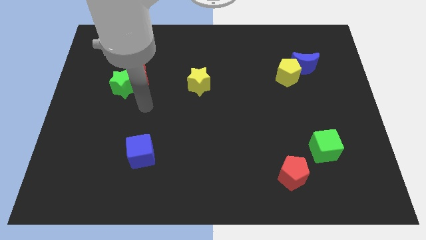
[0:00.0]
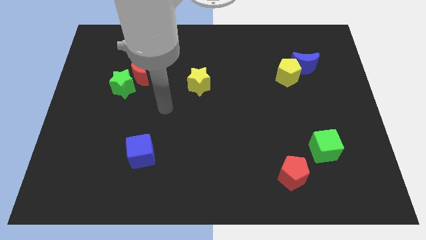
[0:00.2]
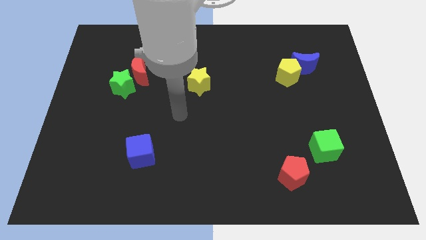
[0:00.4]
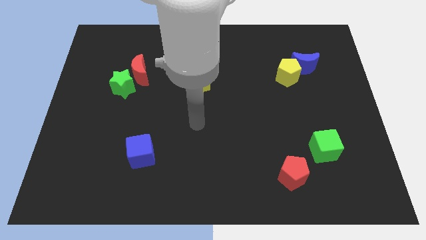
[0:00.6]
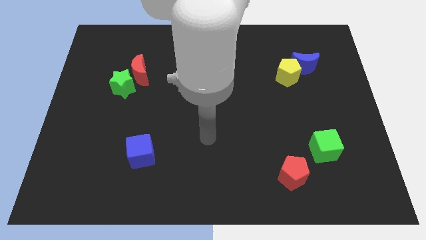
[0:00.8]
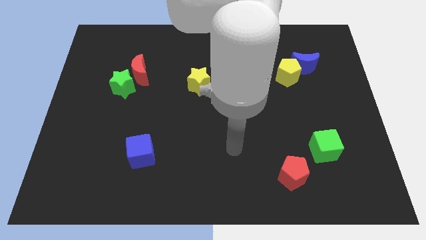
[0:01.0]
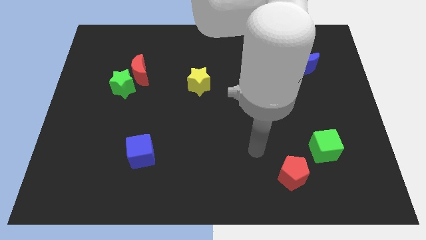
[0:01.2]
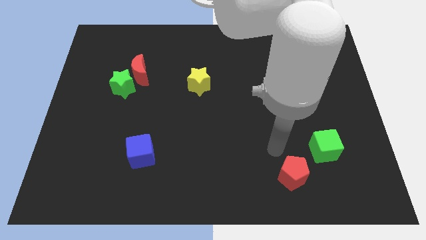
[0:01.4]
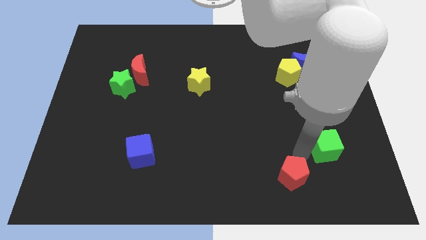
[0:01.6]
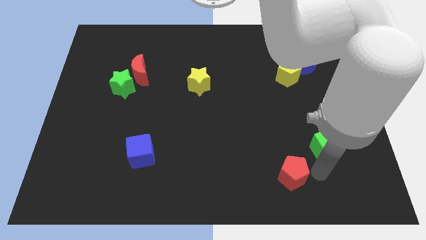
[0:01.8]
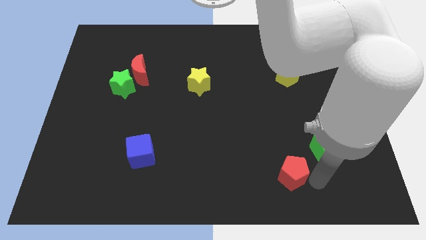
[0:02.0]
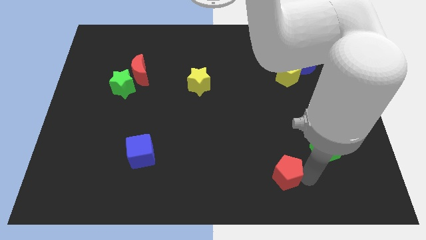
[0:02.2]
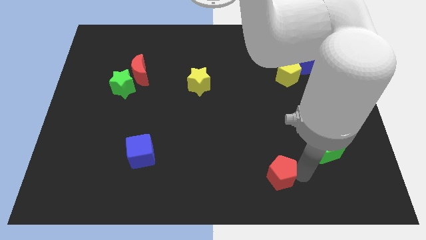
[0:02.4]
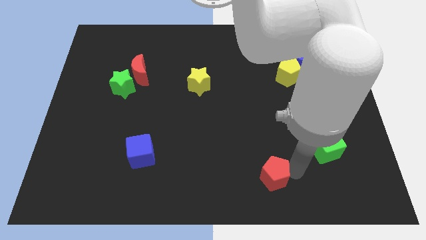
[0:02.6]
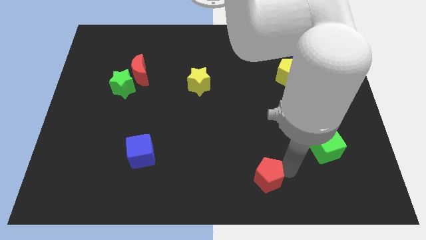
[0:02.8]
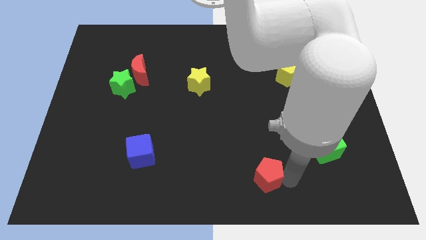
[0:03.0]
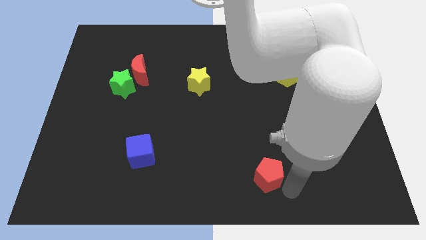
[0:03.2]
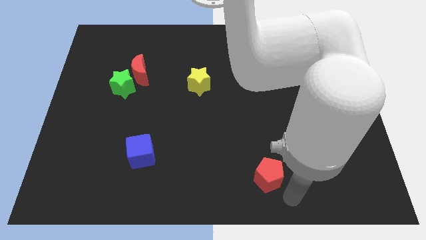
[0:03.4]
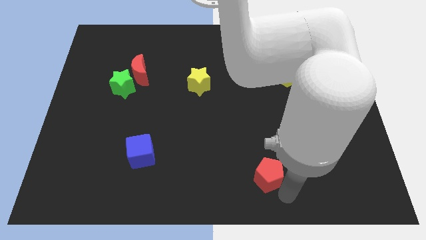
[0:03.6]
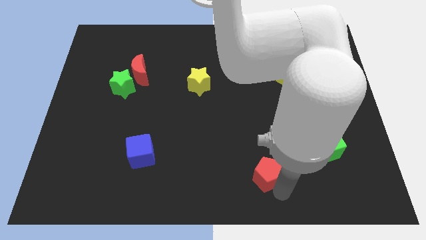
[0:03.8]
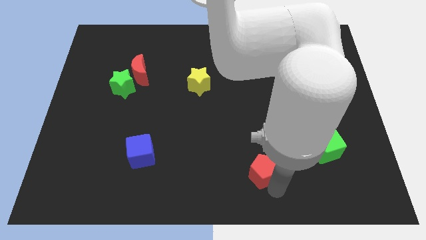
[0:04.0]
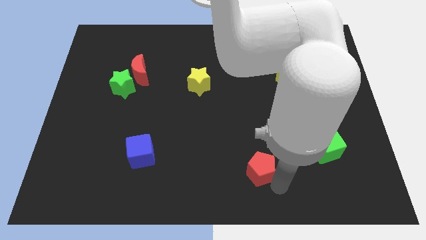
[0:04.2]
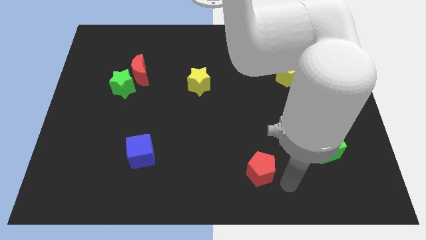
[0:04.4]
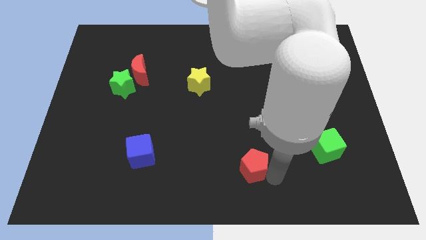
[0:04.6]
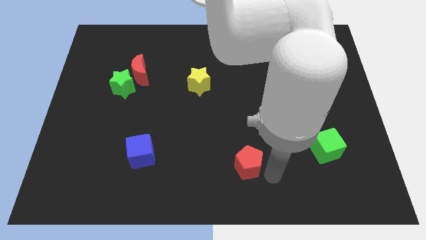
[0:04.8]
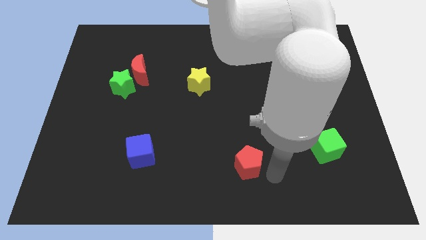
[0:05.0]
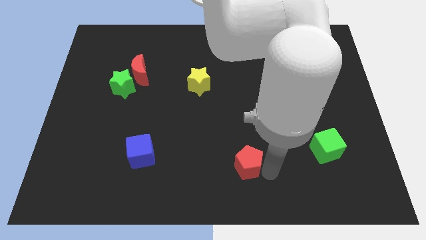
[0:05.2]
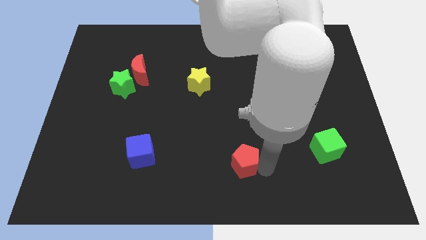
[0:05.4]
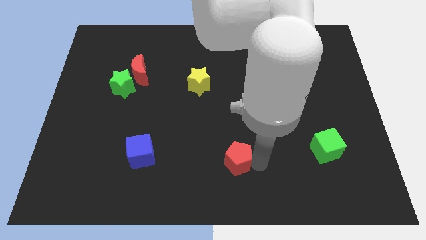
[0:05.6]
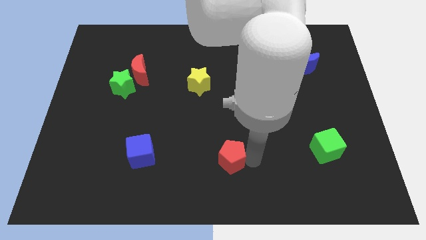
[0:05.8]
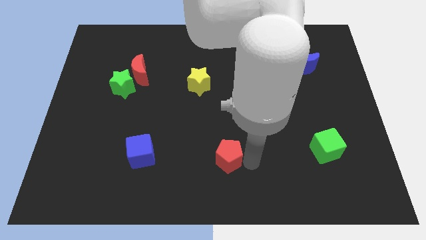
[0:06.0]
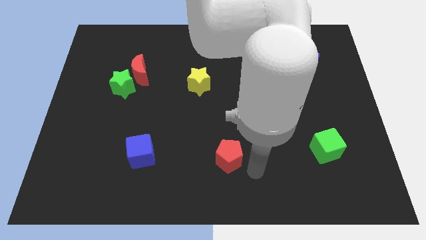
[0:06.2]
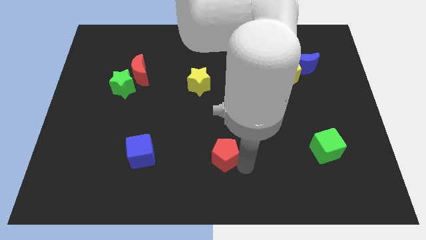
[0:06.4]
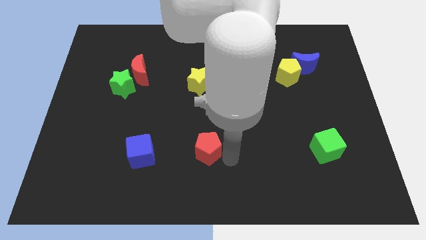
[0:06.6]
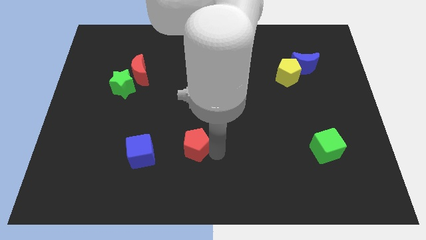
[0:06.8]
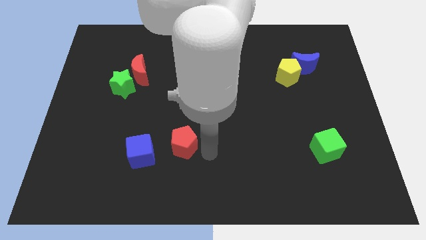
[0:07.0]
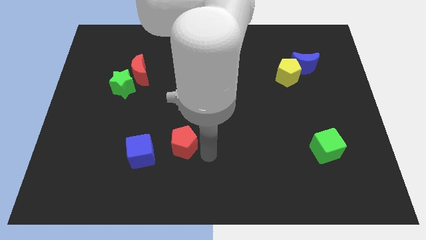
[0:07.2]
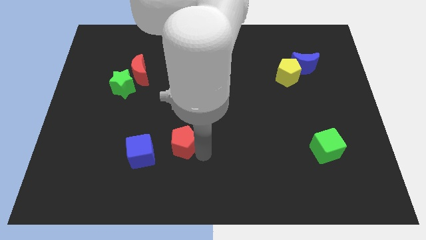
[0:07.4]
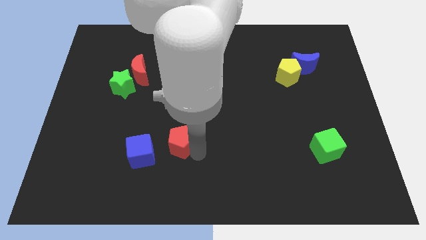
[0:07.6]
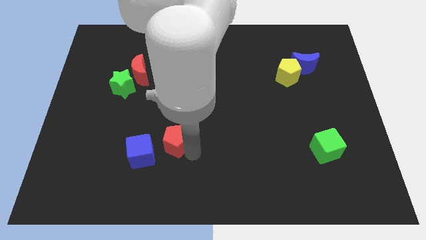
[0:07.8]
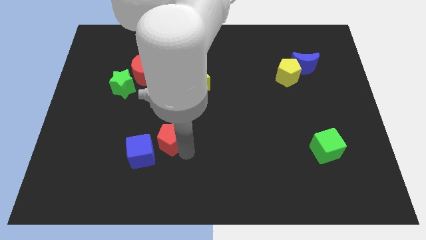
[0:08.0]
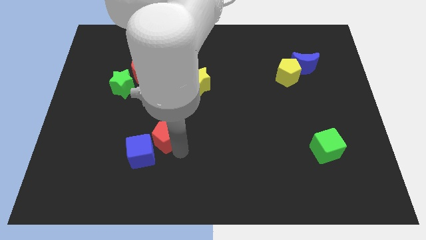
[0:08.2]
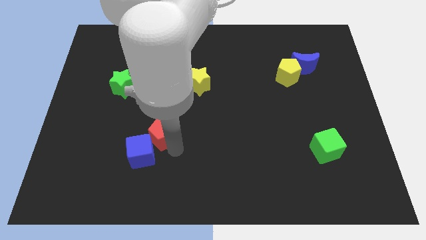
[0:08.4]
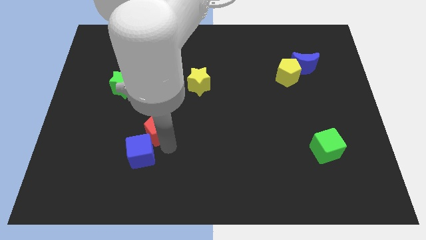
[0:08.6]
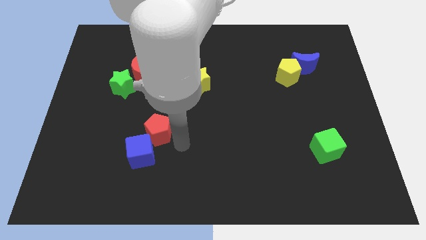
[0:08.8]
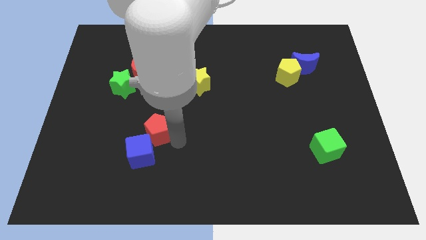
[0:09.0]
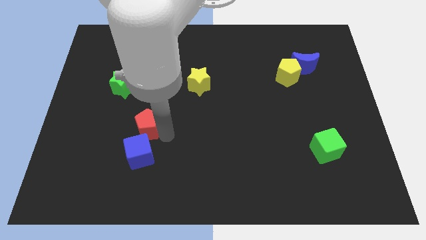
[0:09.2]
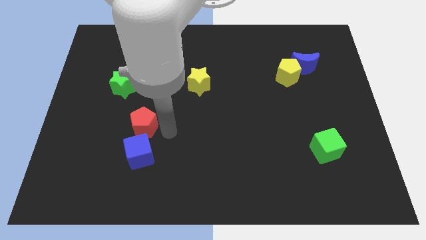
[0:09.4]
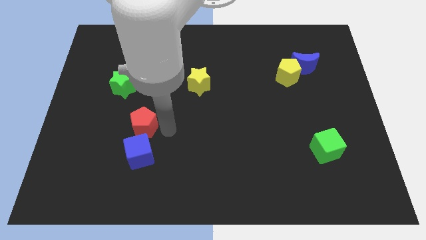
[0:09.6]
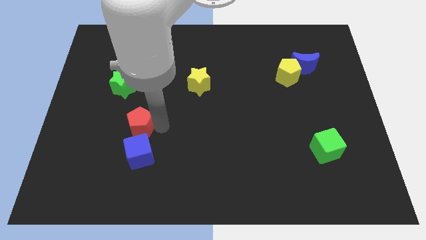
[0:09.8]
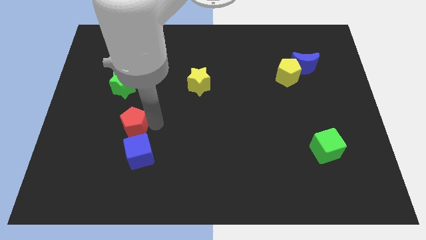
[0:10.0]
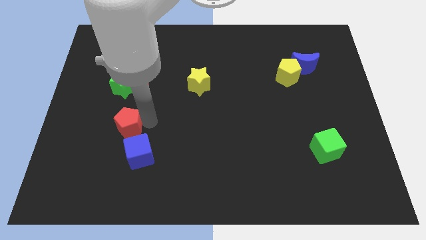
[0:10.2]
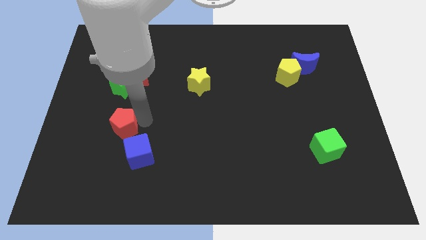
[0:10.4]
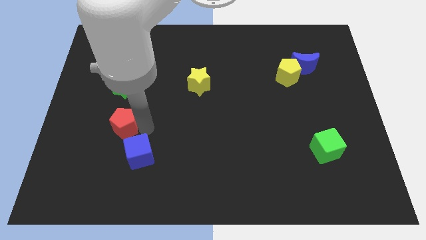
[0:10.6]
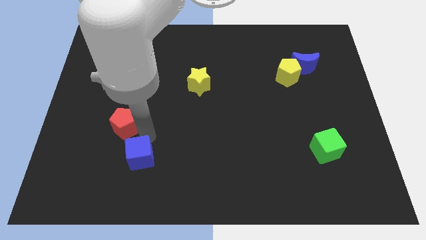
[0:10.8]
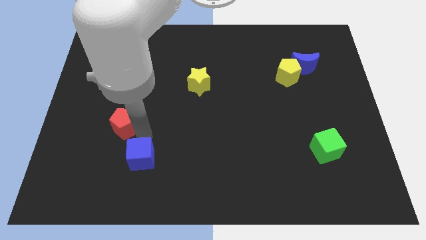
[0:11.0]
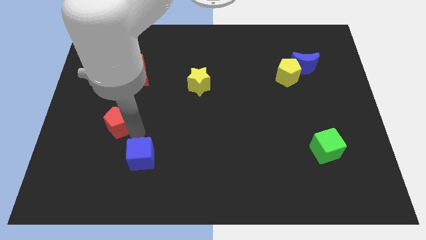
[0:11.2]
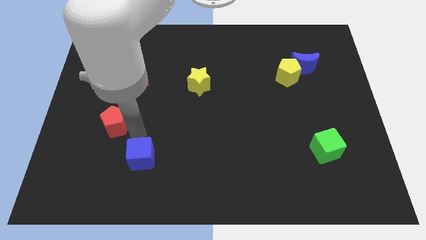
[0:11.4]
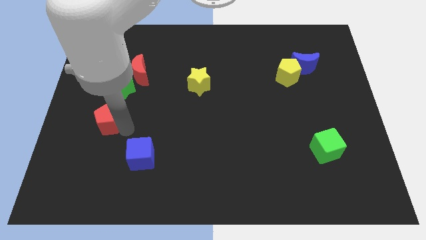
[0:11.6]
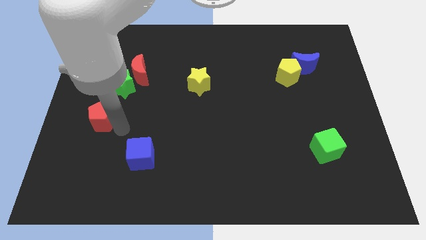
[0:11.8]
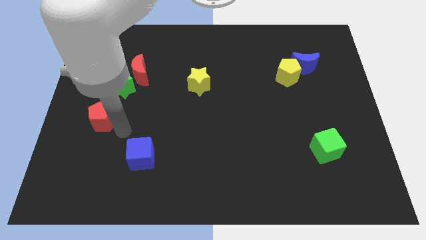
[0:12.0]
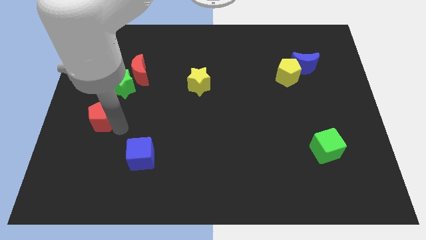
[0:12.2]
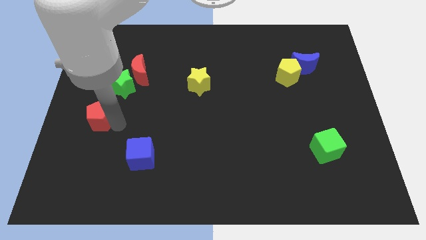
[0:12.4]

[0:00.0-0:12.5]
move the red pentagon to the left side
